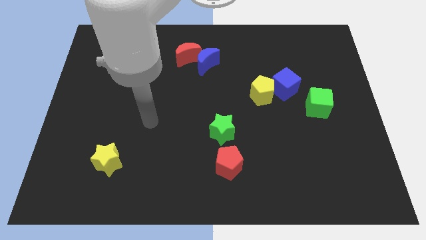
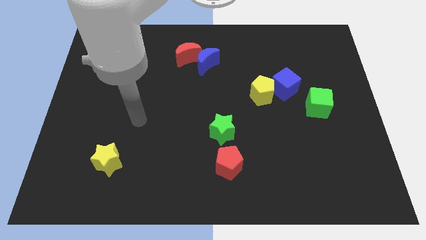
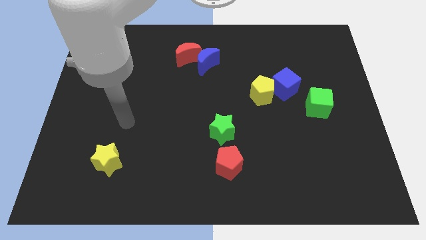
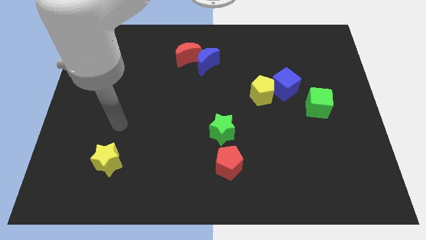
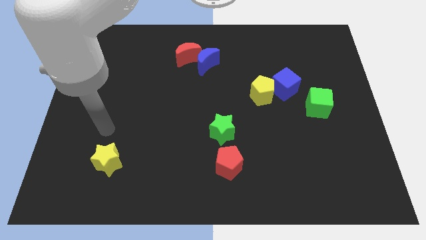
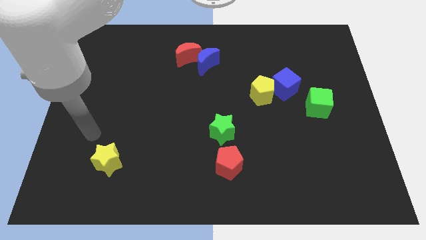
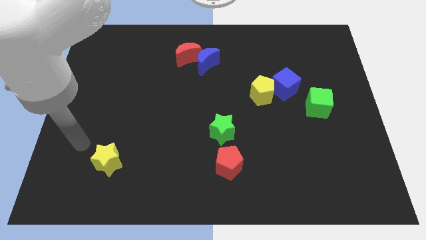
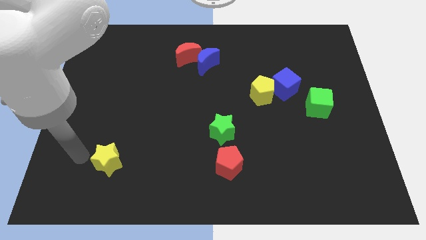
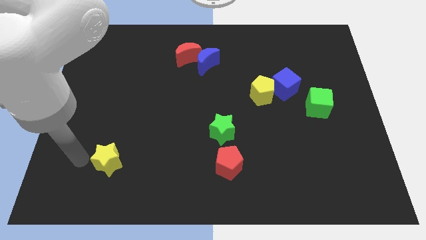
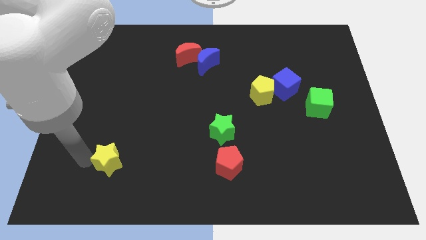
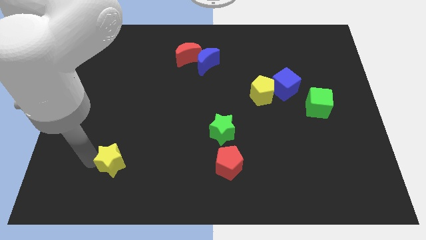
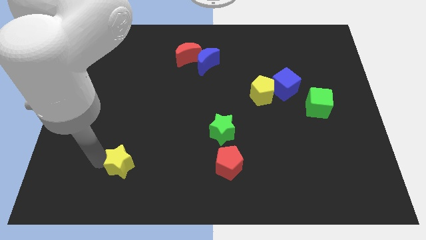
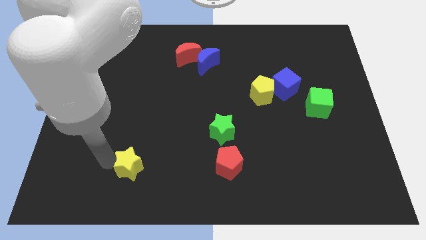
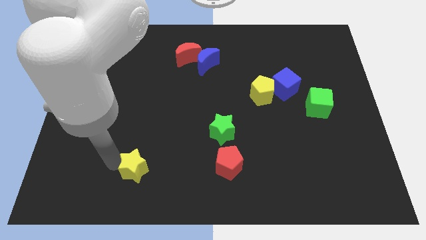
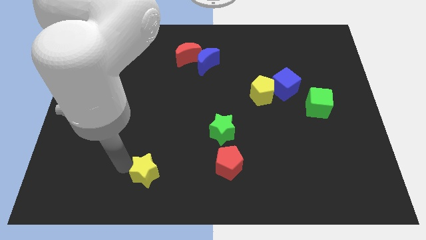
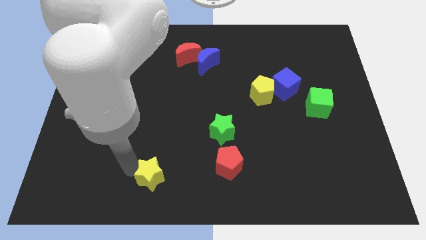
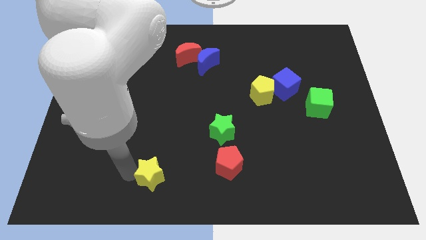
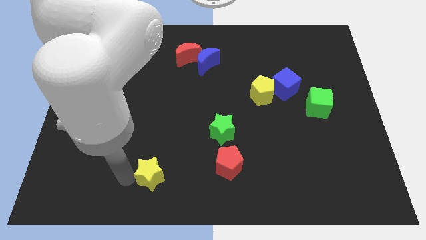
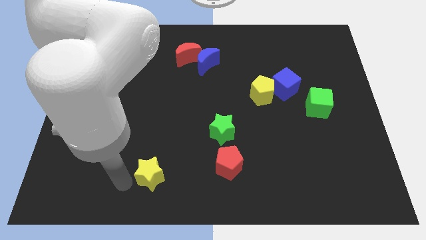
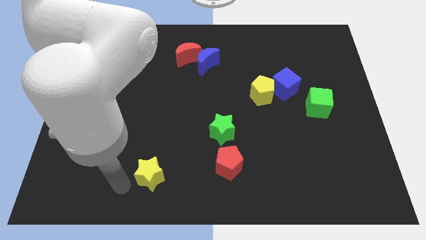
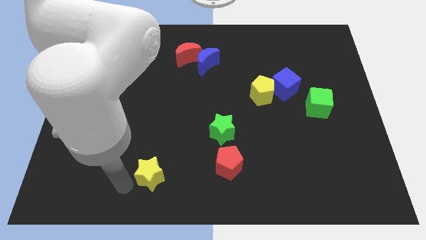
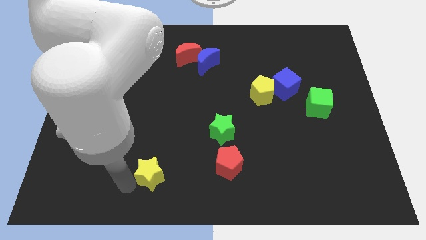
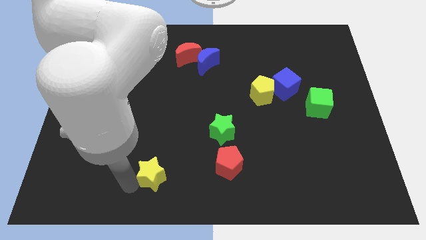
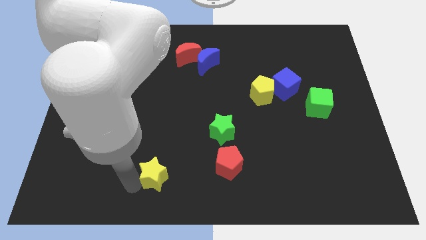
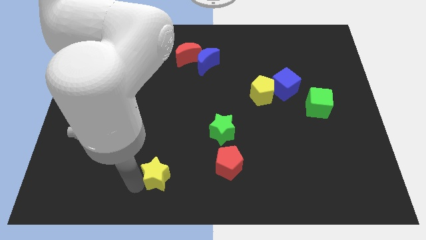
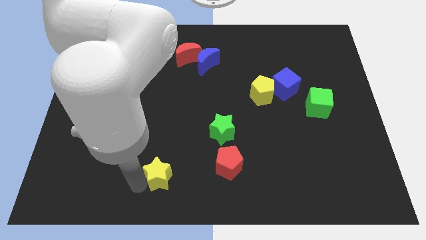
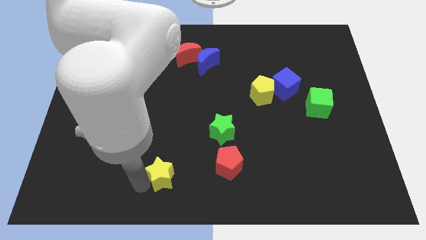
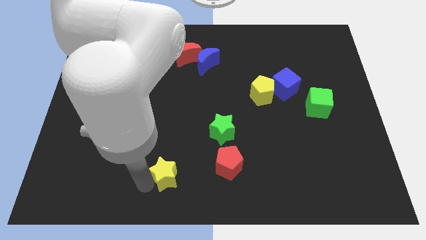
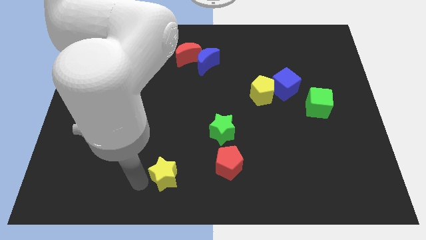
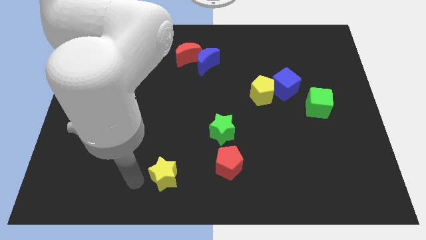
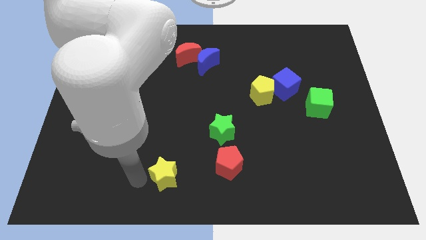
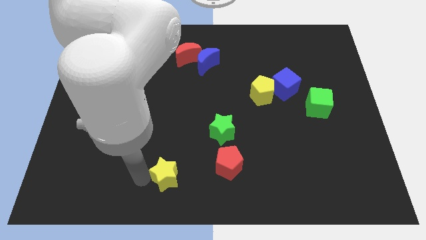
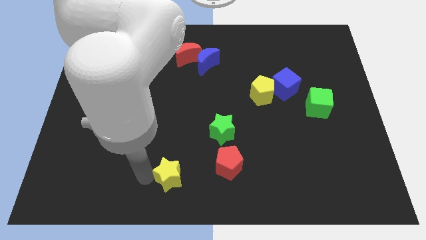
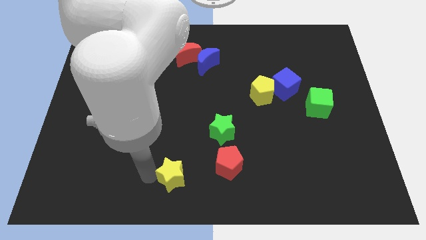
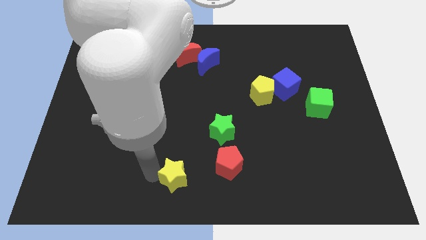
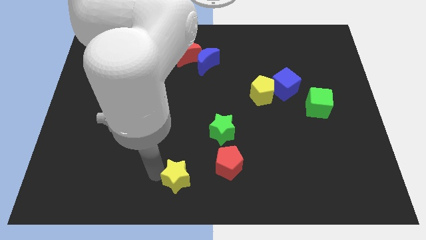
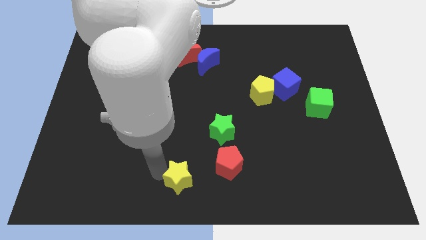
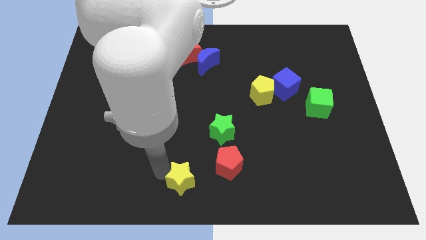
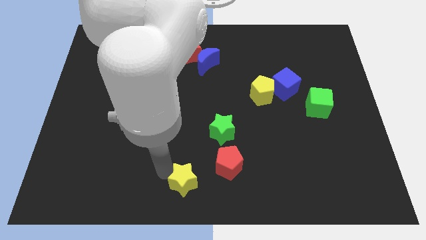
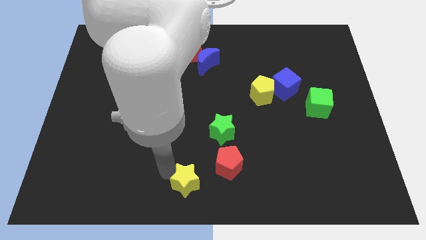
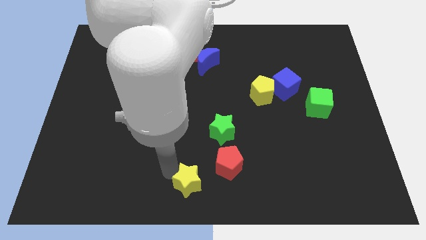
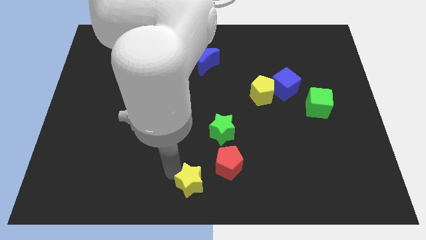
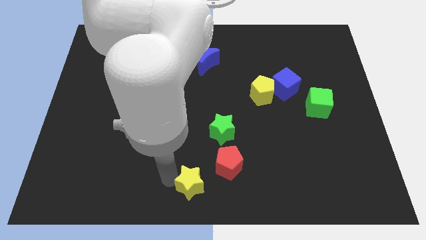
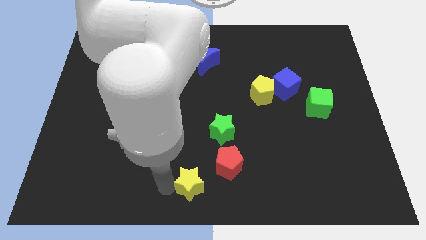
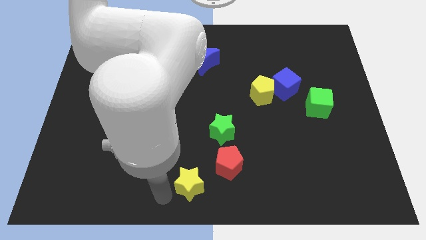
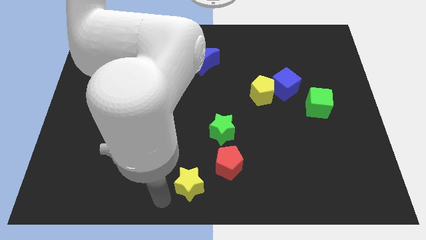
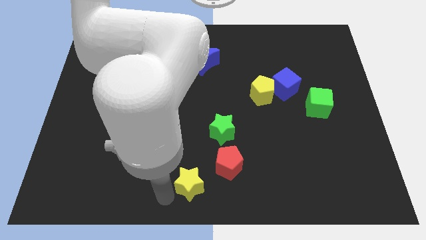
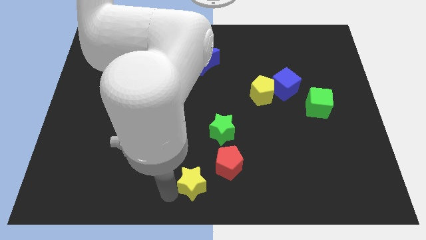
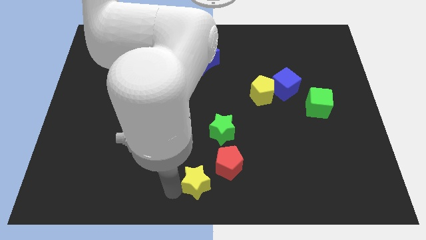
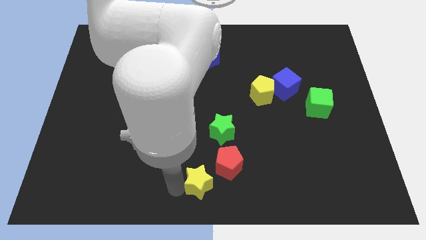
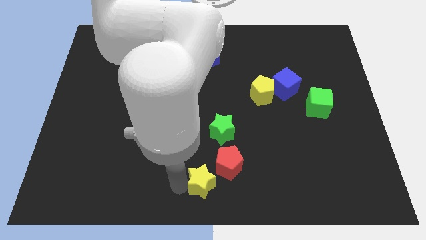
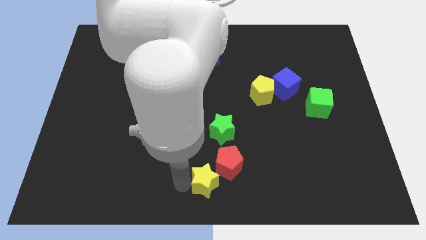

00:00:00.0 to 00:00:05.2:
move the yellow star close to the red pentagon

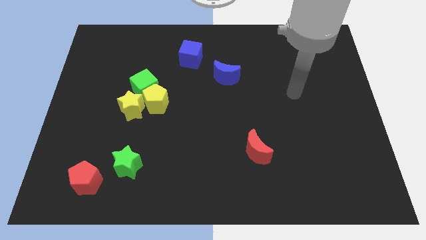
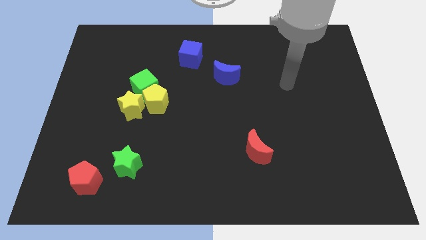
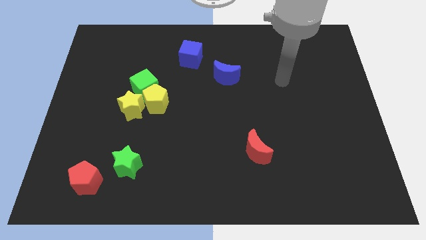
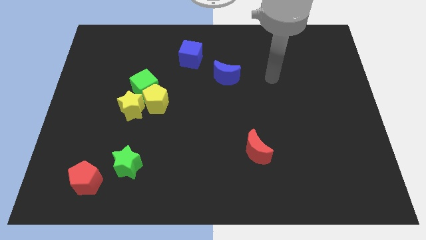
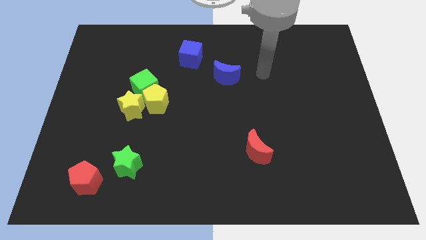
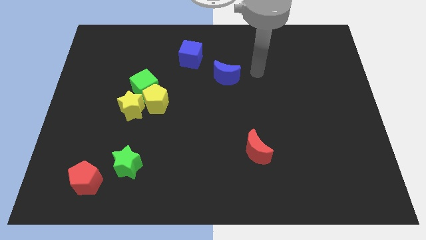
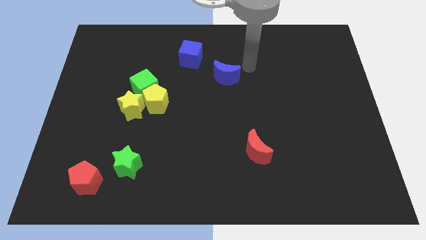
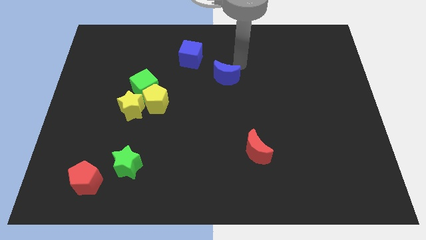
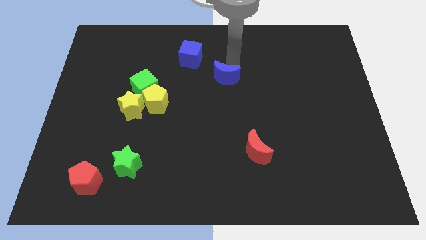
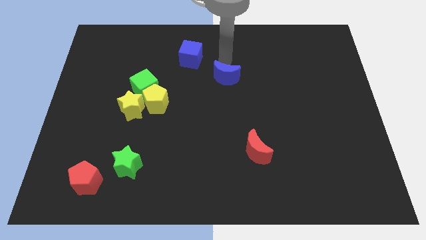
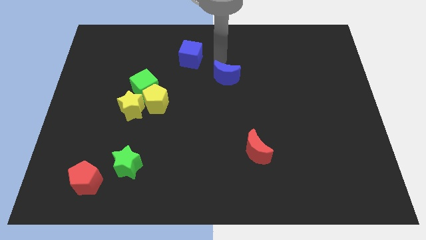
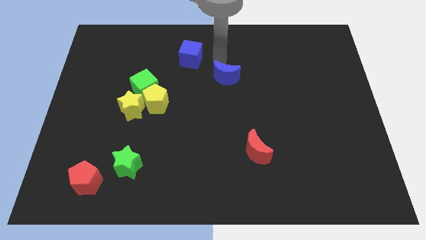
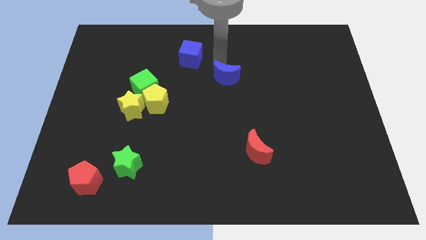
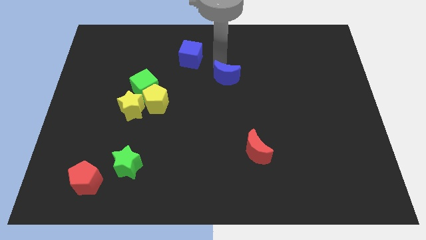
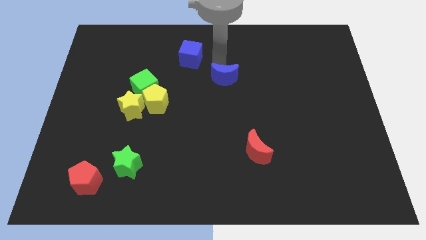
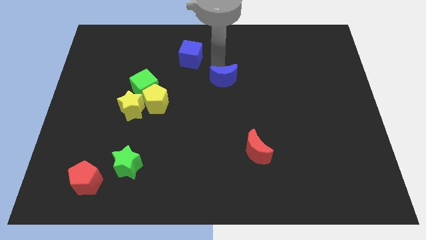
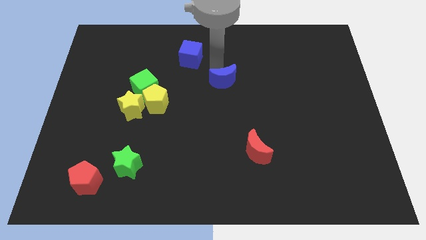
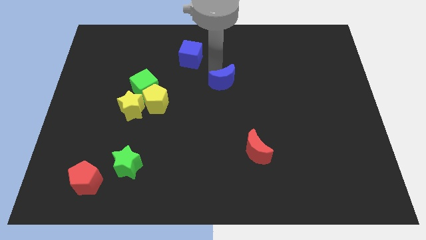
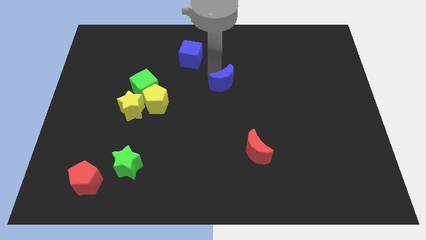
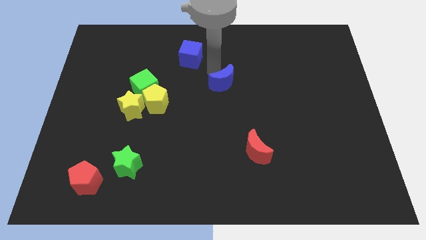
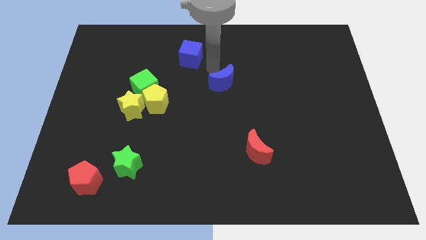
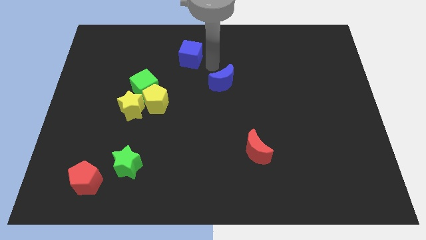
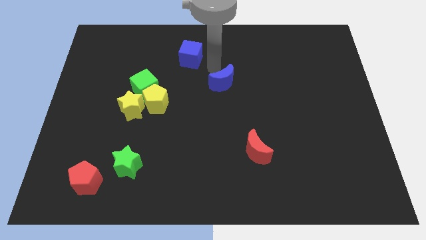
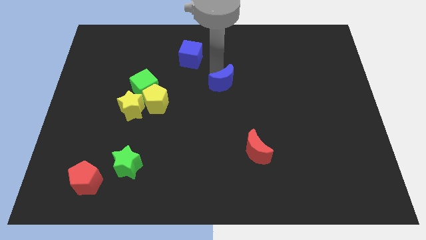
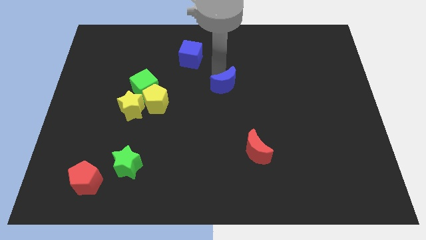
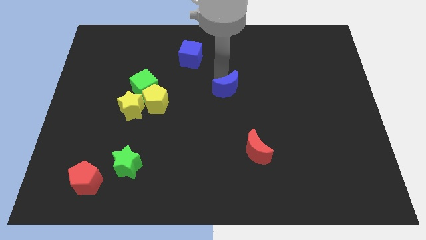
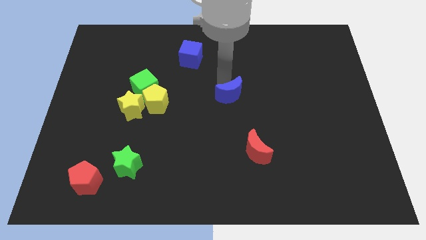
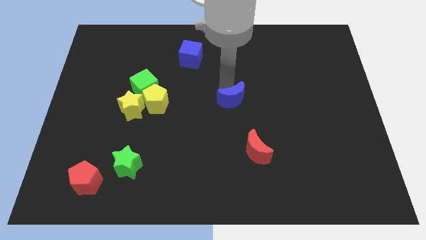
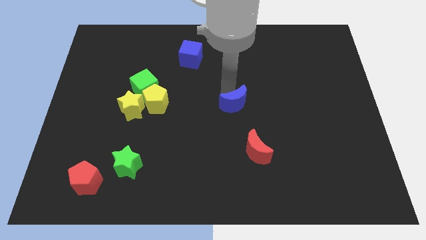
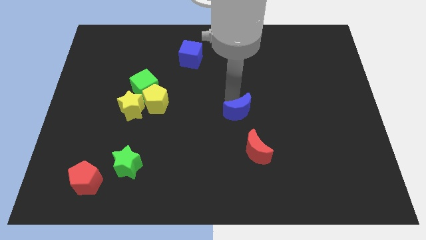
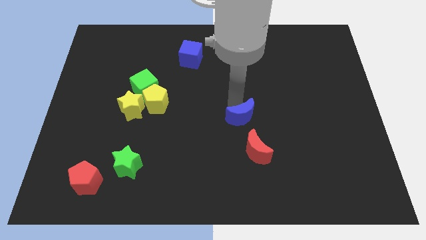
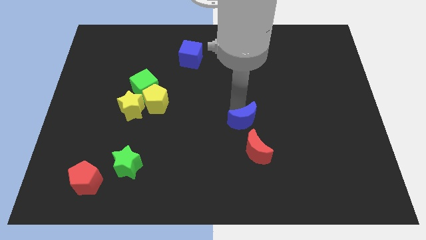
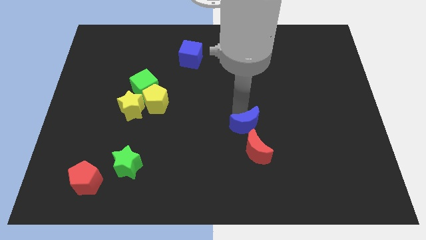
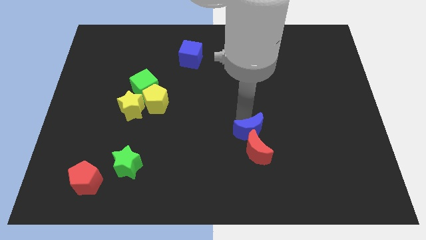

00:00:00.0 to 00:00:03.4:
push the blue moon towards the red moon
